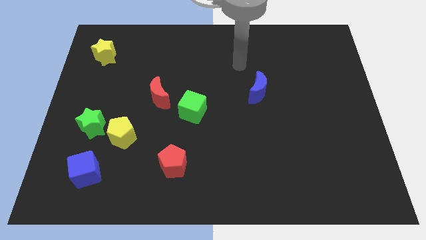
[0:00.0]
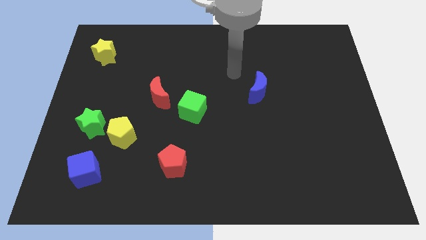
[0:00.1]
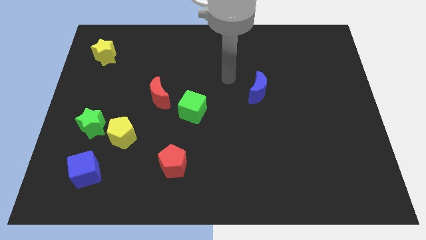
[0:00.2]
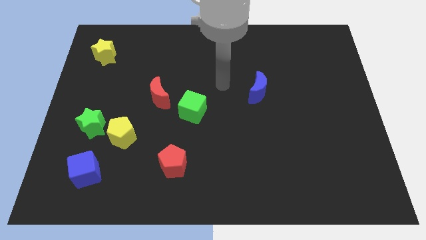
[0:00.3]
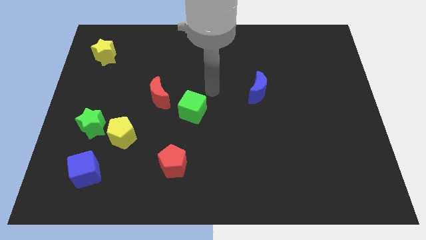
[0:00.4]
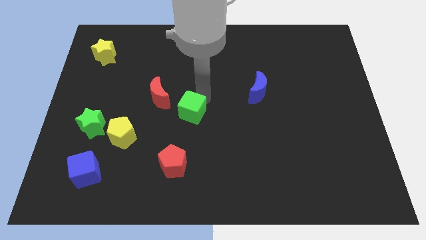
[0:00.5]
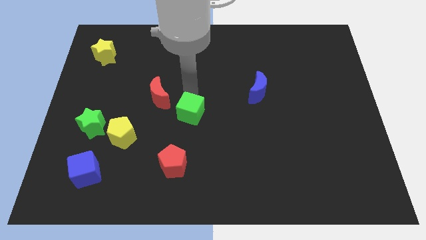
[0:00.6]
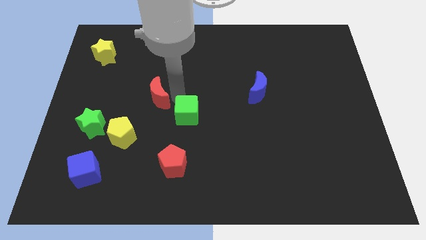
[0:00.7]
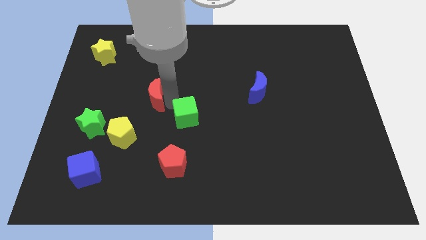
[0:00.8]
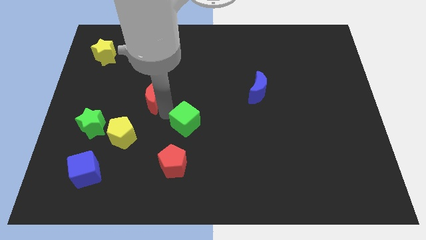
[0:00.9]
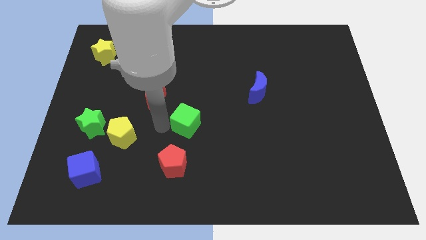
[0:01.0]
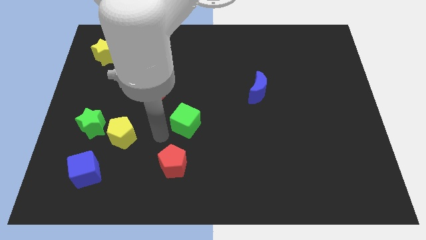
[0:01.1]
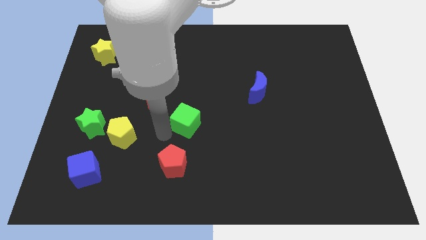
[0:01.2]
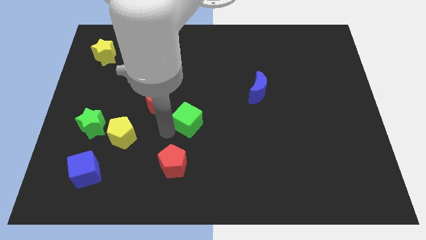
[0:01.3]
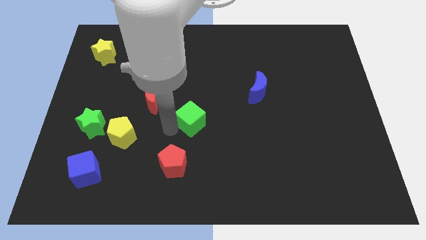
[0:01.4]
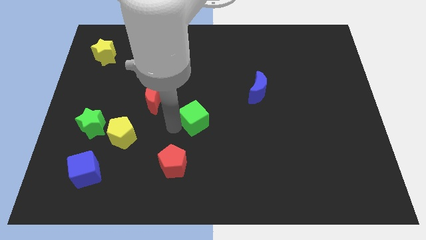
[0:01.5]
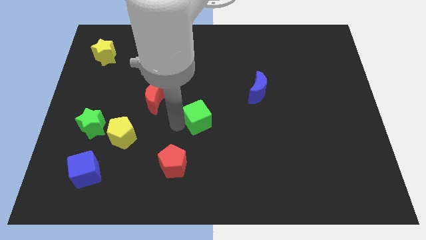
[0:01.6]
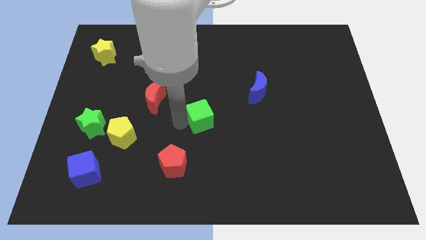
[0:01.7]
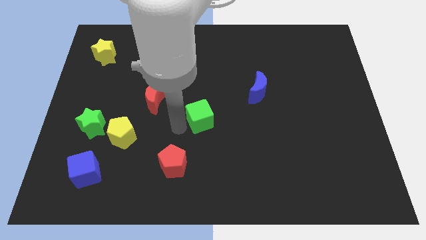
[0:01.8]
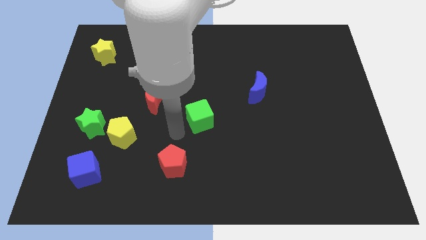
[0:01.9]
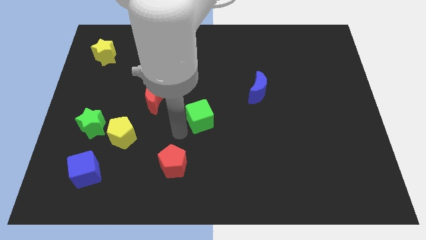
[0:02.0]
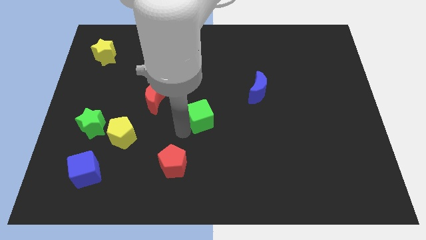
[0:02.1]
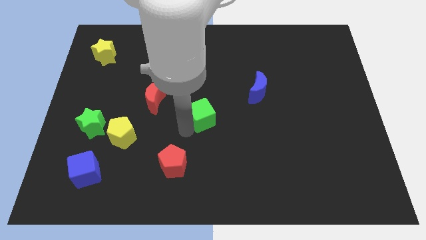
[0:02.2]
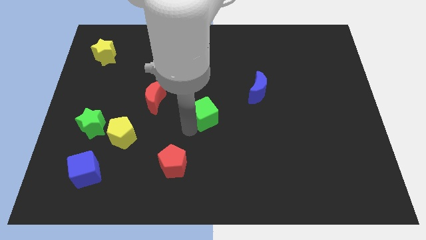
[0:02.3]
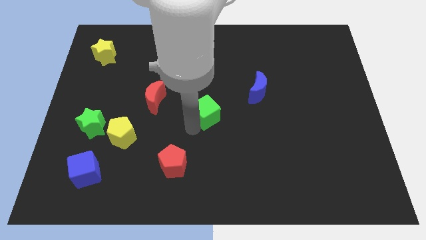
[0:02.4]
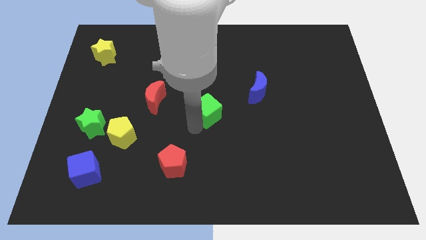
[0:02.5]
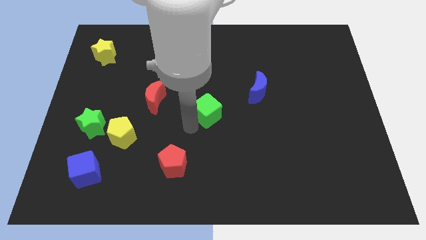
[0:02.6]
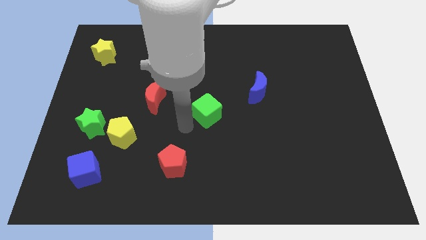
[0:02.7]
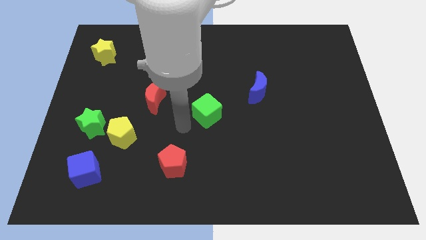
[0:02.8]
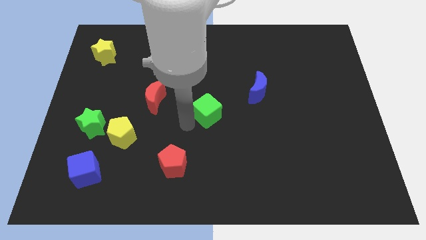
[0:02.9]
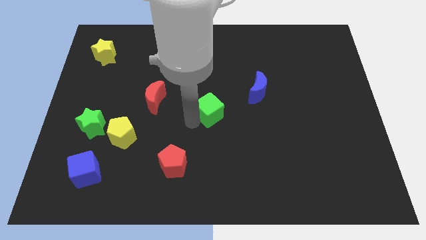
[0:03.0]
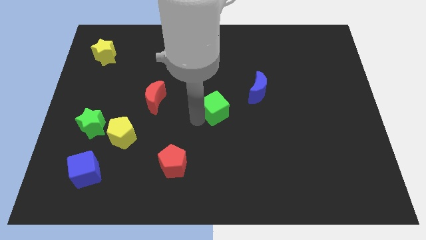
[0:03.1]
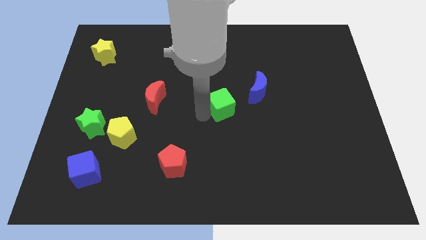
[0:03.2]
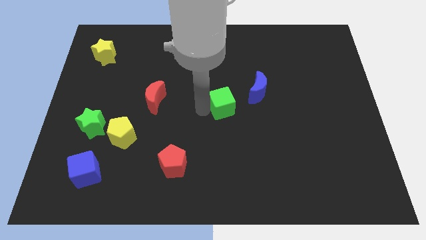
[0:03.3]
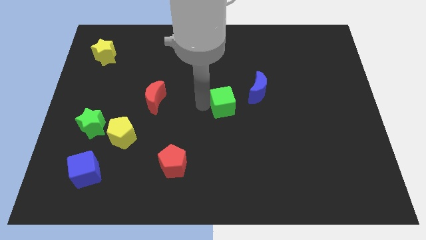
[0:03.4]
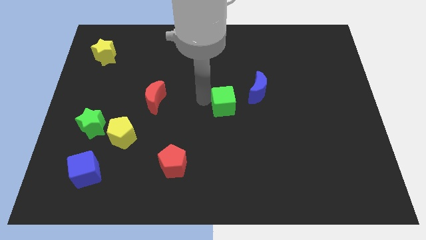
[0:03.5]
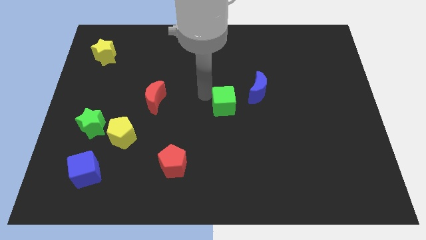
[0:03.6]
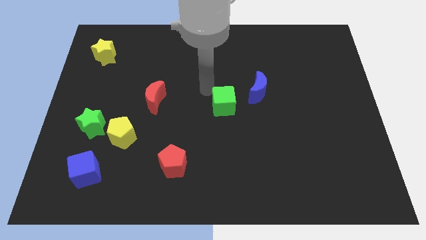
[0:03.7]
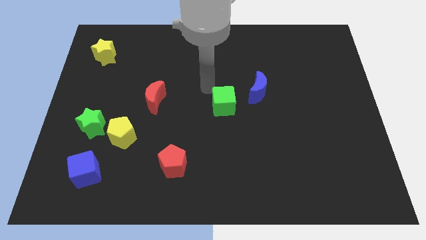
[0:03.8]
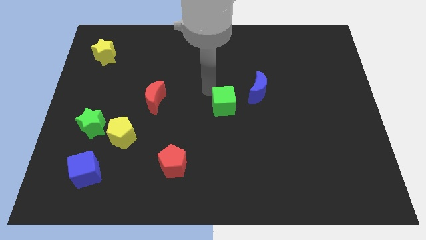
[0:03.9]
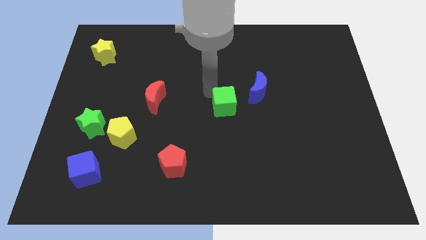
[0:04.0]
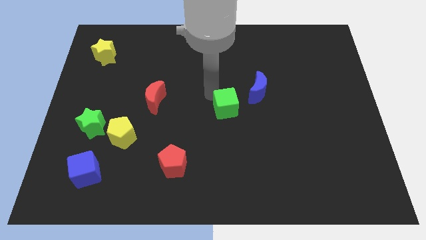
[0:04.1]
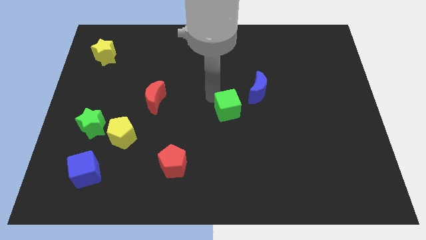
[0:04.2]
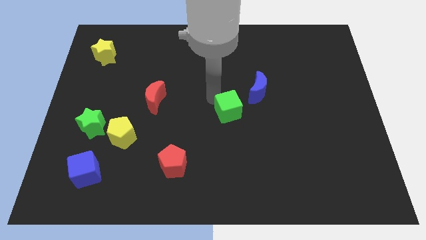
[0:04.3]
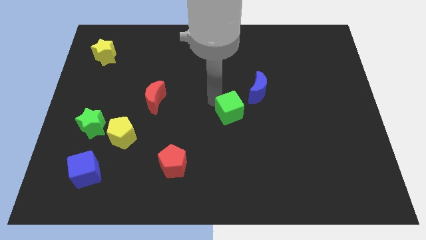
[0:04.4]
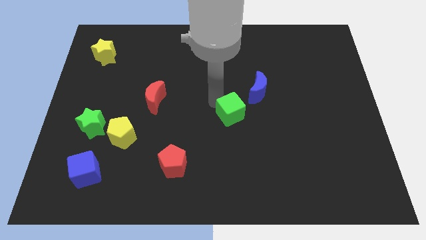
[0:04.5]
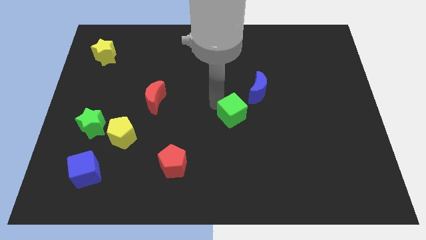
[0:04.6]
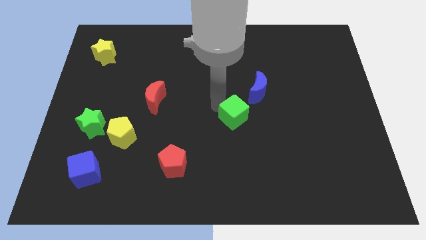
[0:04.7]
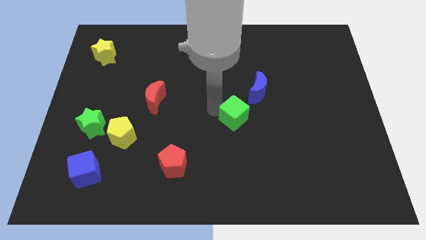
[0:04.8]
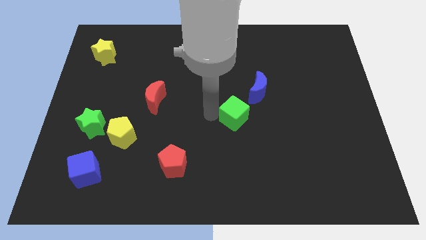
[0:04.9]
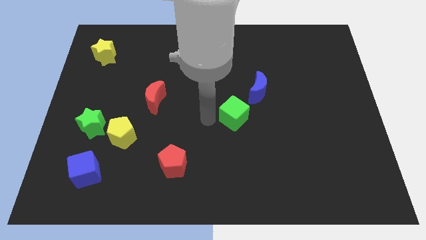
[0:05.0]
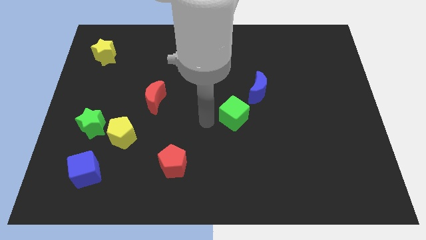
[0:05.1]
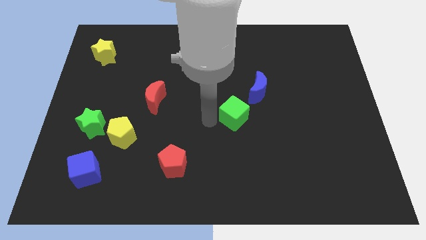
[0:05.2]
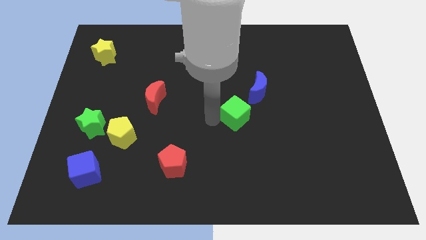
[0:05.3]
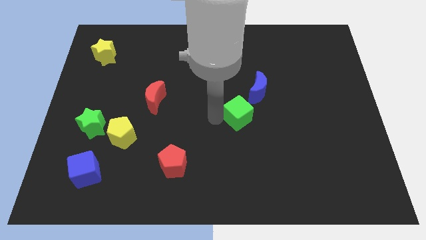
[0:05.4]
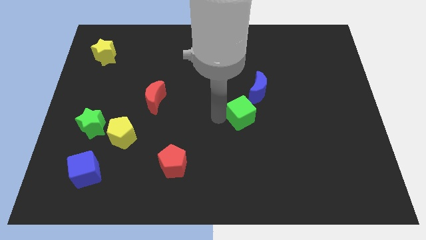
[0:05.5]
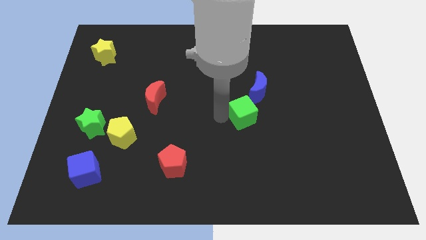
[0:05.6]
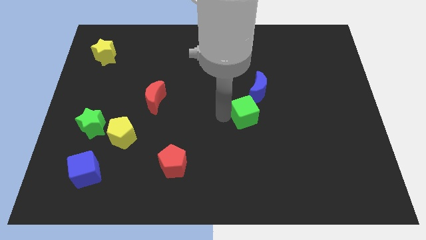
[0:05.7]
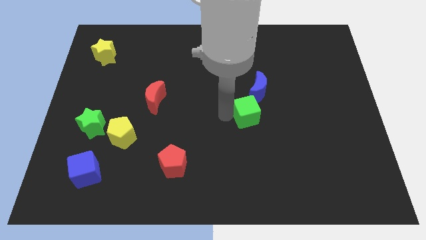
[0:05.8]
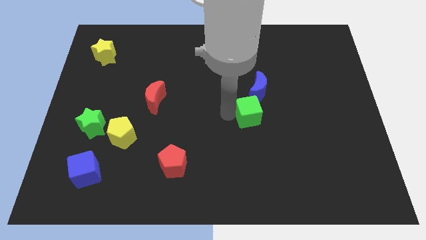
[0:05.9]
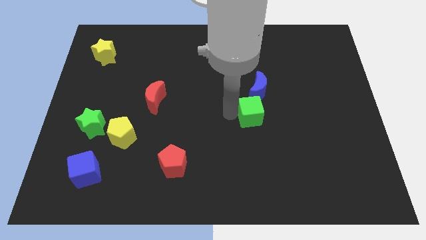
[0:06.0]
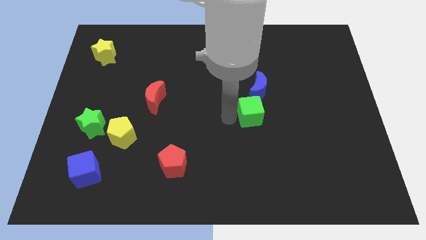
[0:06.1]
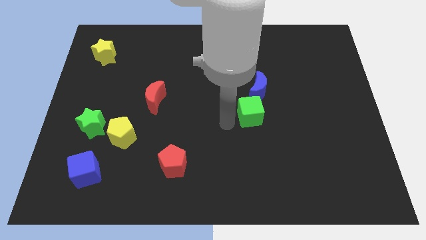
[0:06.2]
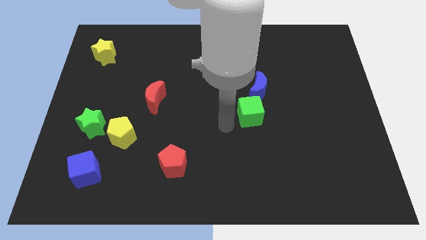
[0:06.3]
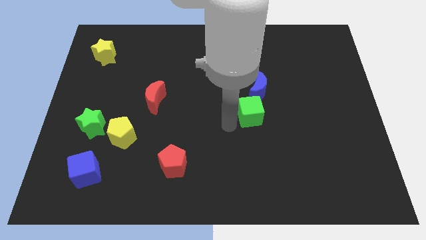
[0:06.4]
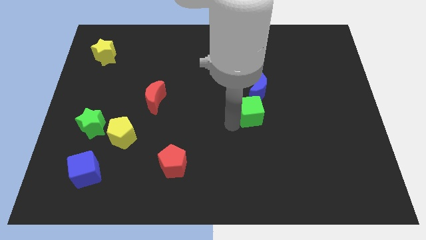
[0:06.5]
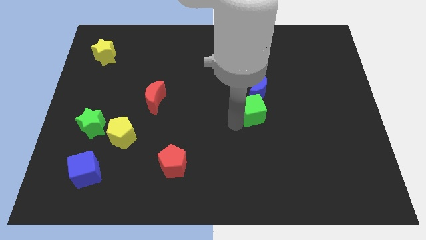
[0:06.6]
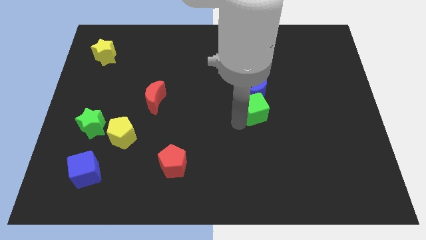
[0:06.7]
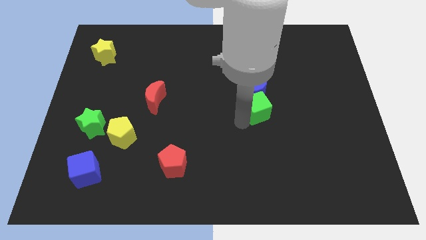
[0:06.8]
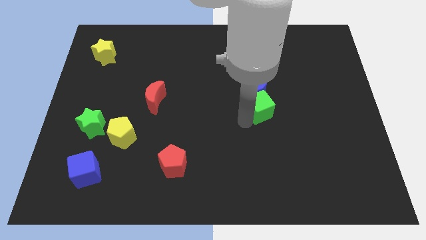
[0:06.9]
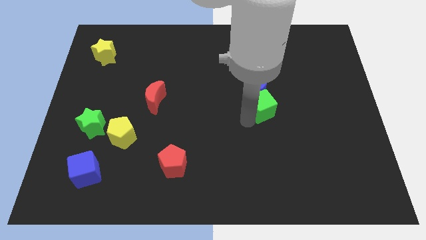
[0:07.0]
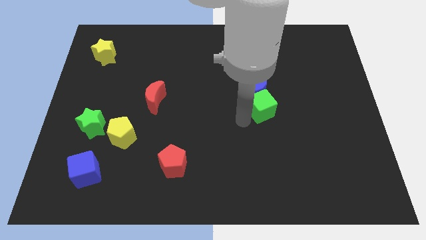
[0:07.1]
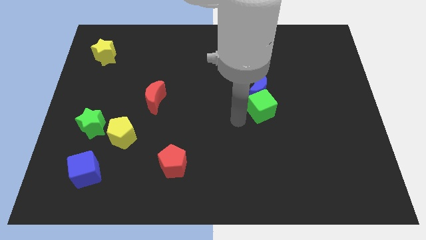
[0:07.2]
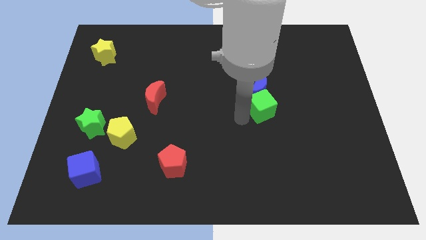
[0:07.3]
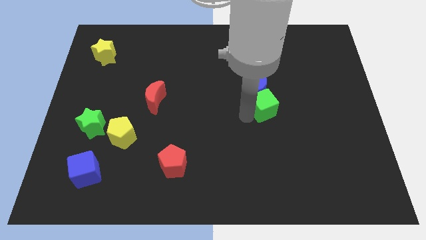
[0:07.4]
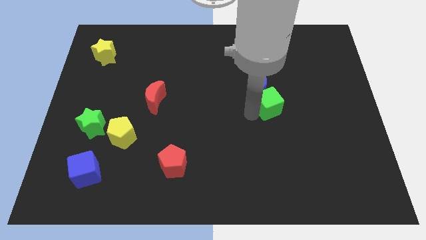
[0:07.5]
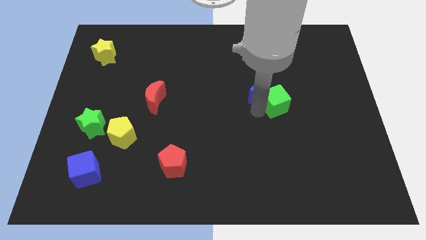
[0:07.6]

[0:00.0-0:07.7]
slide the green cube to the right of the blue moon

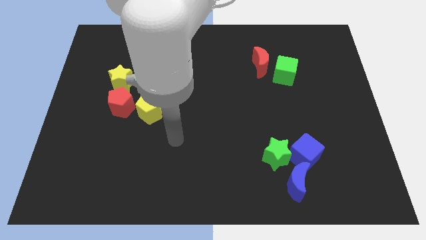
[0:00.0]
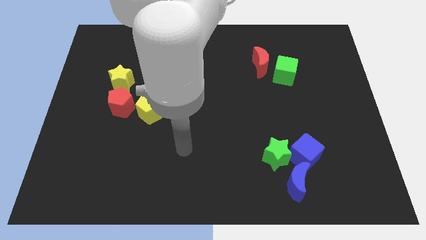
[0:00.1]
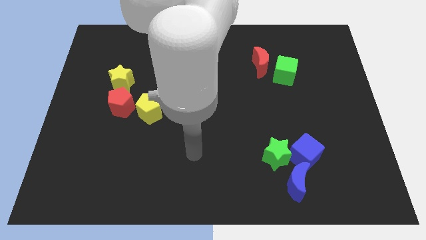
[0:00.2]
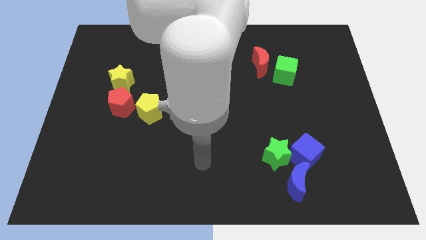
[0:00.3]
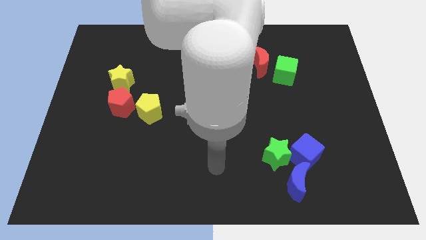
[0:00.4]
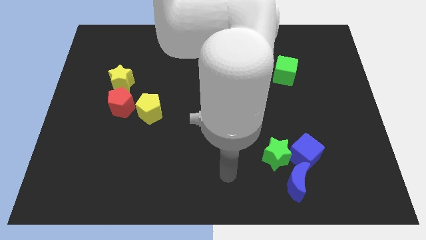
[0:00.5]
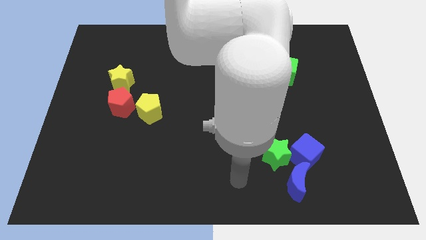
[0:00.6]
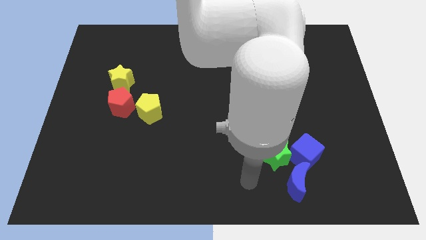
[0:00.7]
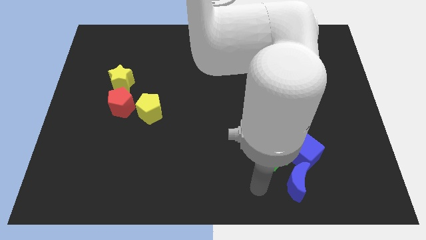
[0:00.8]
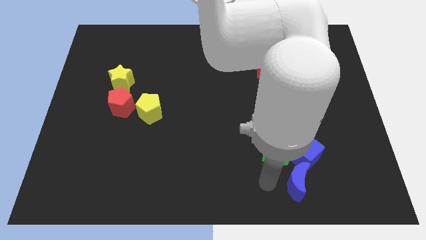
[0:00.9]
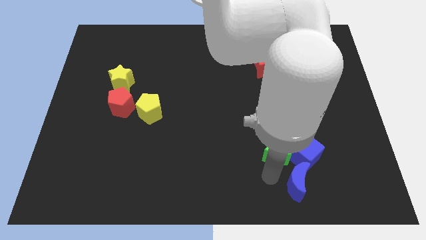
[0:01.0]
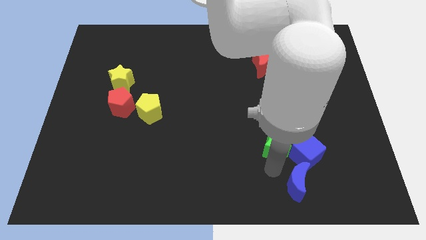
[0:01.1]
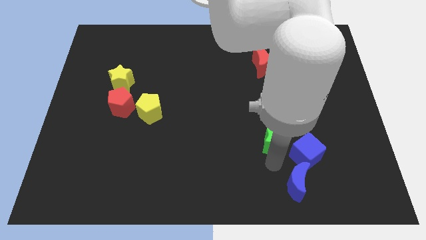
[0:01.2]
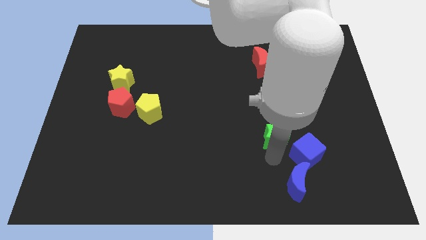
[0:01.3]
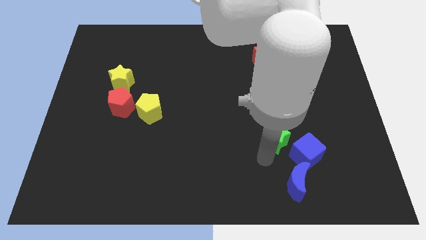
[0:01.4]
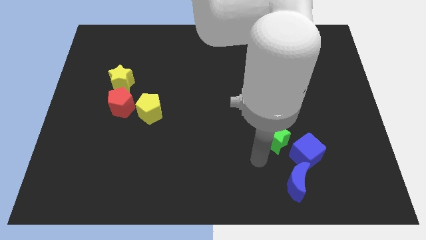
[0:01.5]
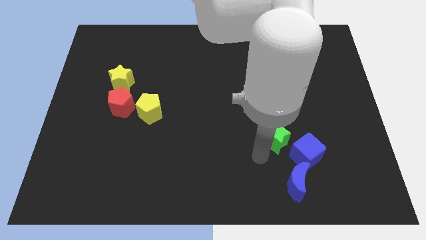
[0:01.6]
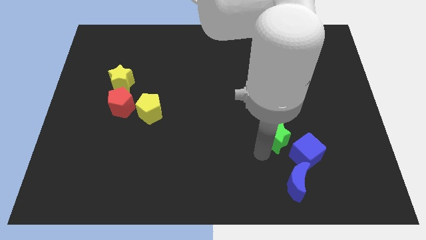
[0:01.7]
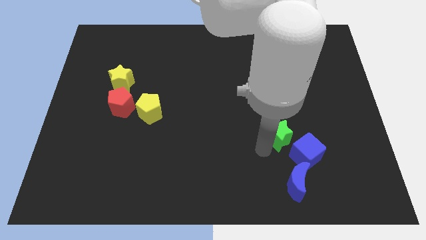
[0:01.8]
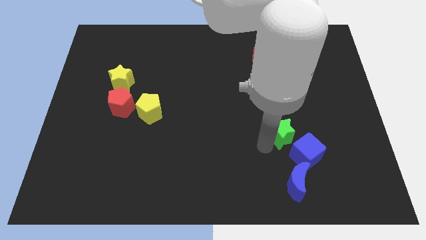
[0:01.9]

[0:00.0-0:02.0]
move the green star to the top of the blue cube
